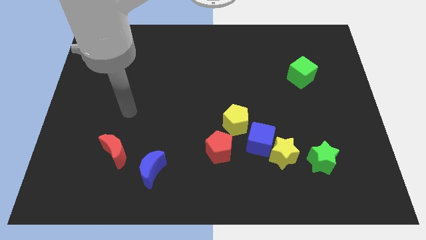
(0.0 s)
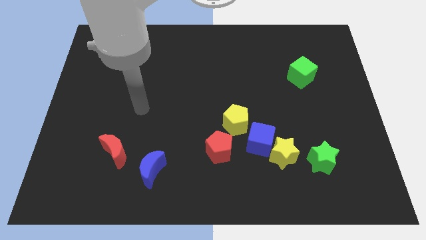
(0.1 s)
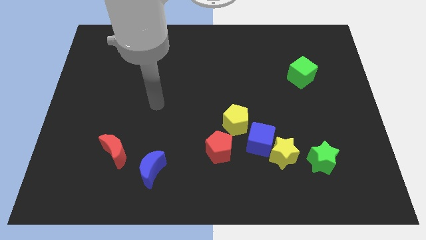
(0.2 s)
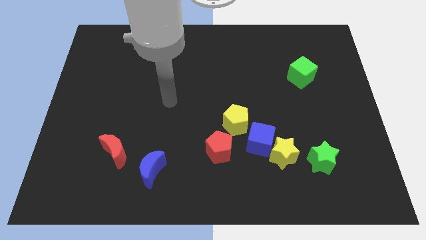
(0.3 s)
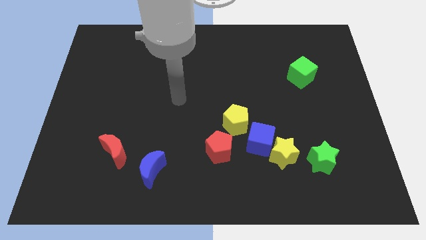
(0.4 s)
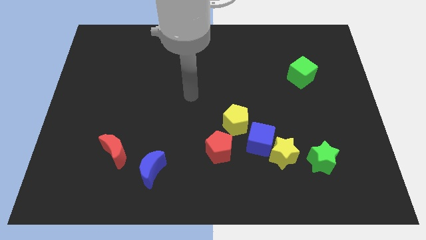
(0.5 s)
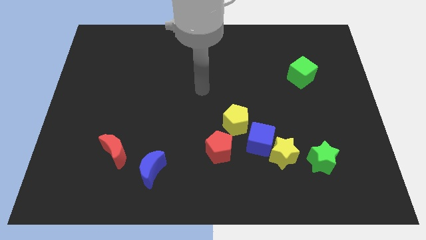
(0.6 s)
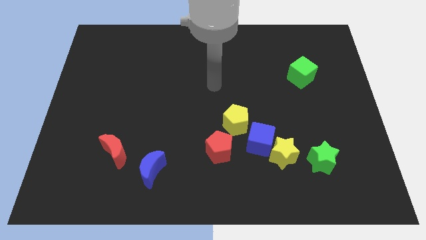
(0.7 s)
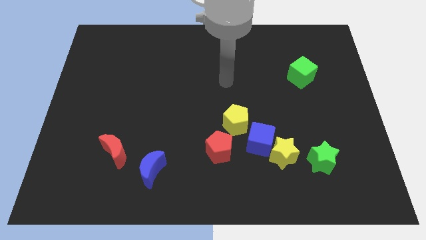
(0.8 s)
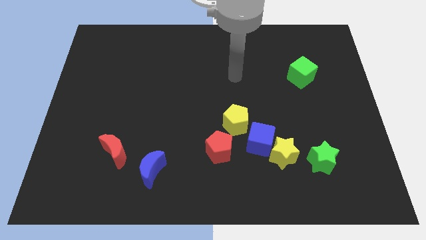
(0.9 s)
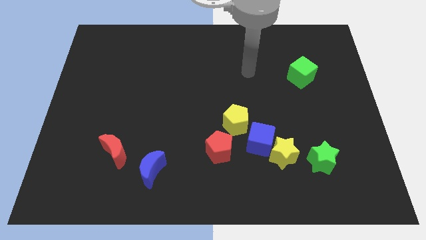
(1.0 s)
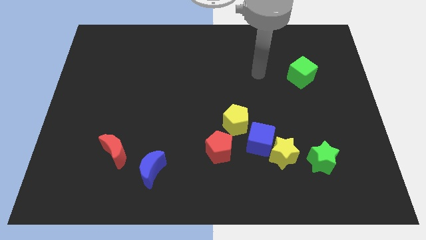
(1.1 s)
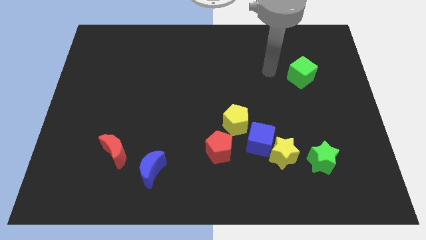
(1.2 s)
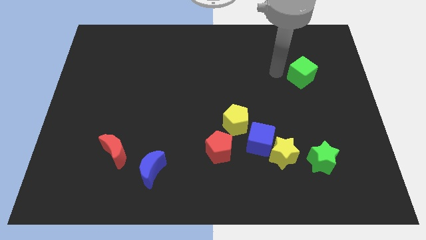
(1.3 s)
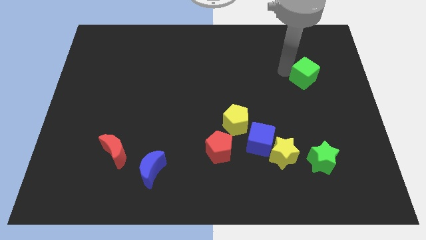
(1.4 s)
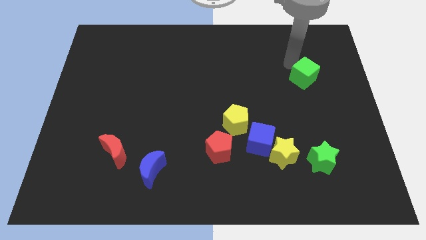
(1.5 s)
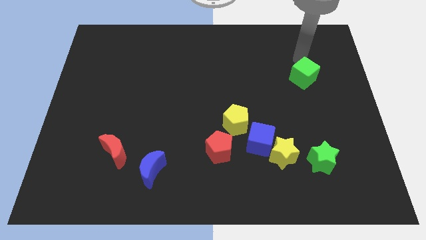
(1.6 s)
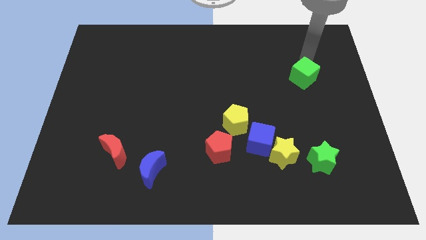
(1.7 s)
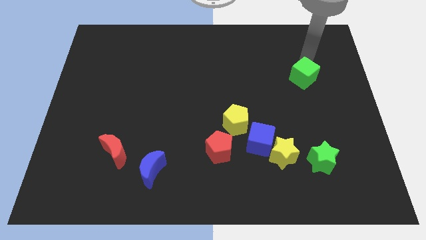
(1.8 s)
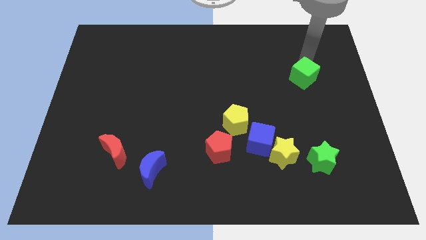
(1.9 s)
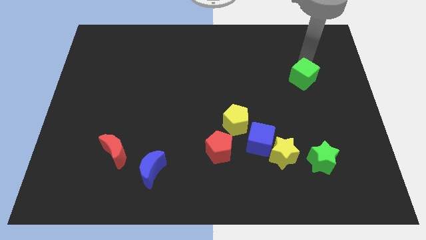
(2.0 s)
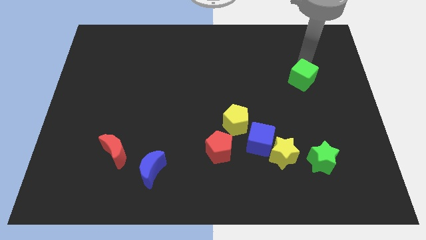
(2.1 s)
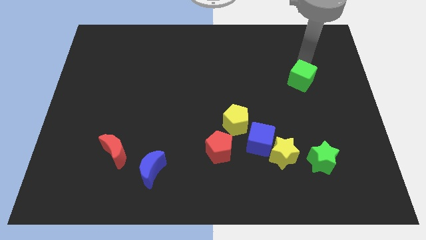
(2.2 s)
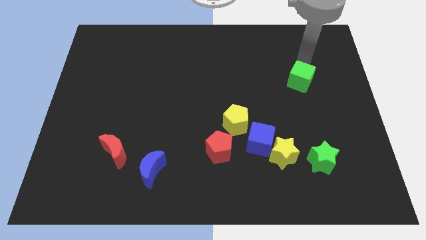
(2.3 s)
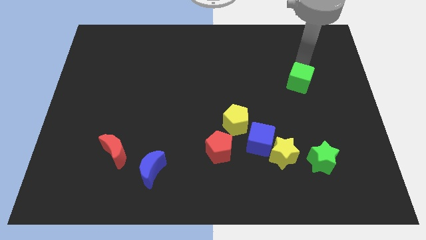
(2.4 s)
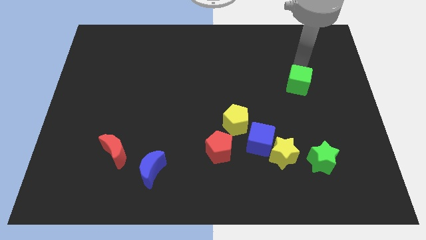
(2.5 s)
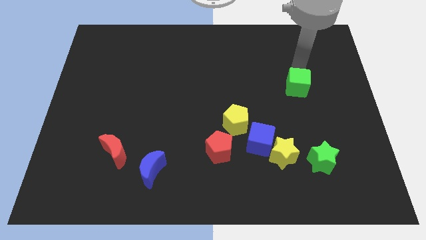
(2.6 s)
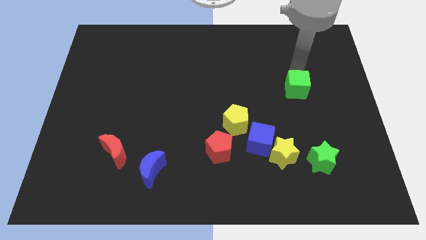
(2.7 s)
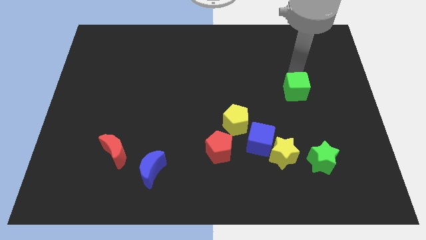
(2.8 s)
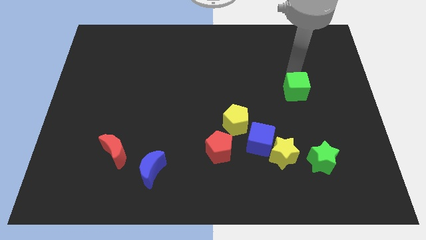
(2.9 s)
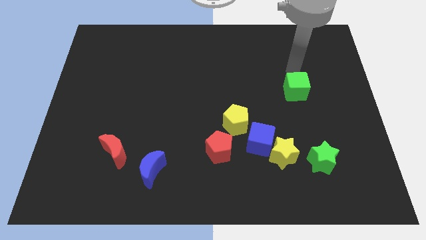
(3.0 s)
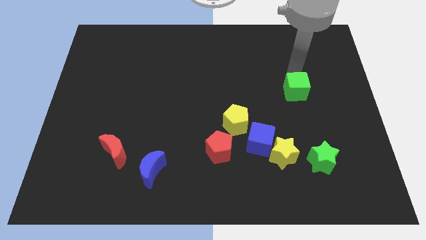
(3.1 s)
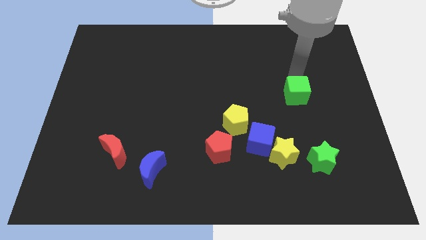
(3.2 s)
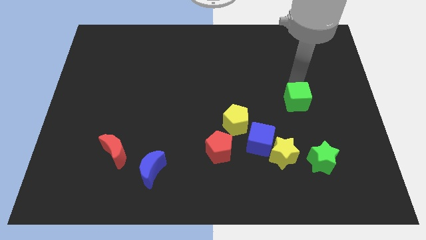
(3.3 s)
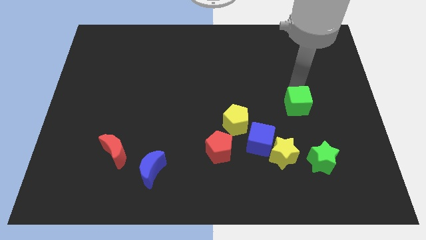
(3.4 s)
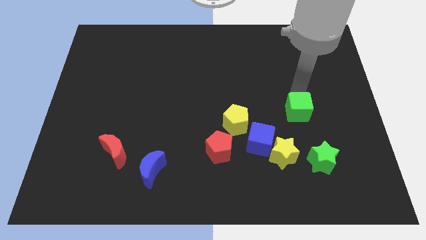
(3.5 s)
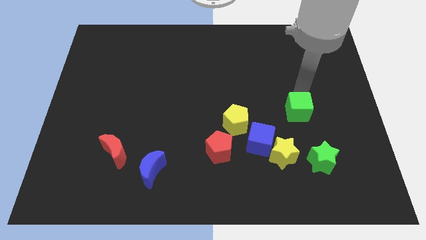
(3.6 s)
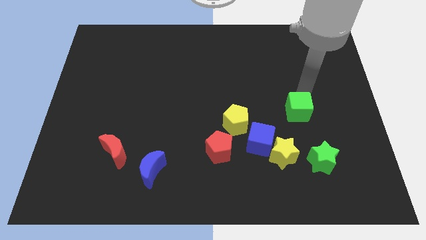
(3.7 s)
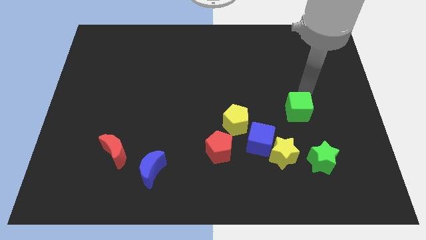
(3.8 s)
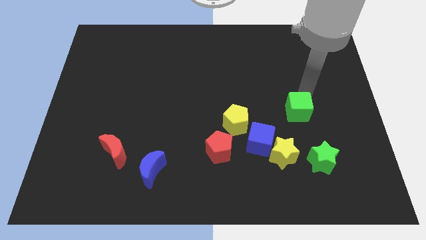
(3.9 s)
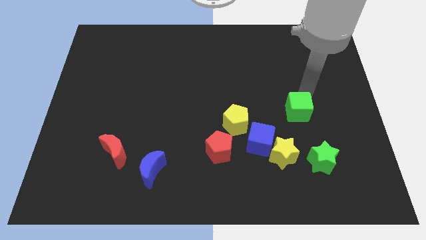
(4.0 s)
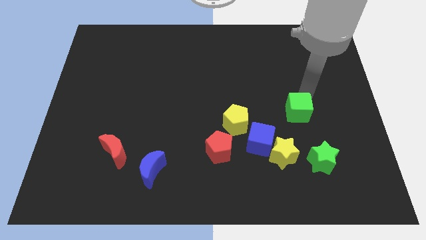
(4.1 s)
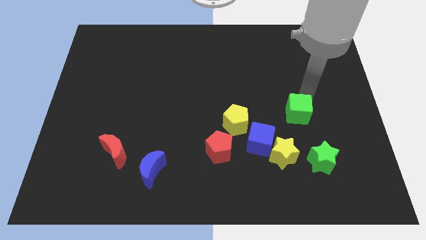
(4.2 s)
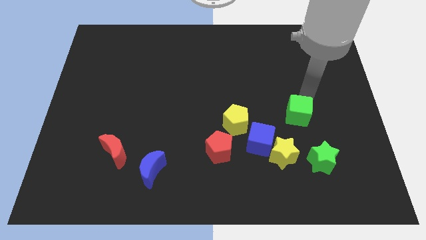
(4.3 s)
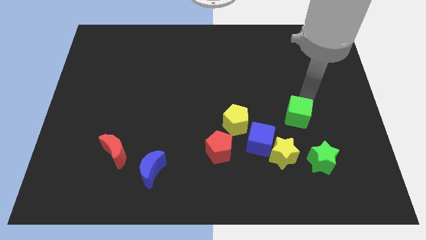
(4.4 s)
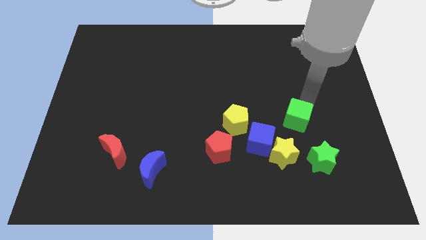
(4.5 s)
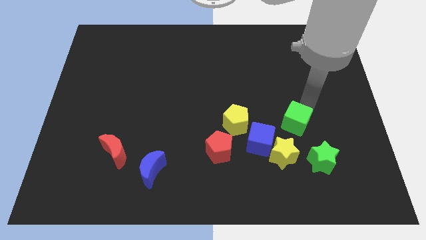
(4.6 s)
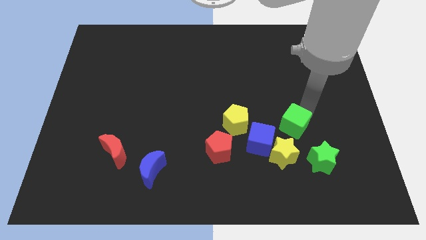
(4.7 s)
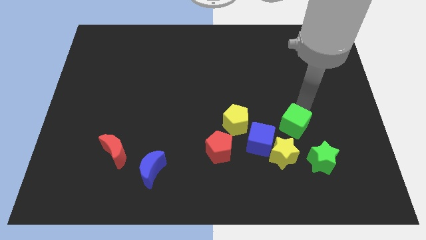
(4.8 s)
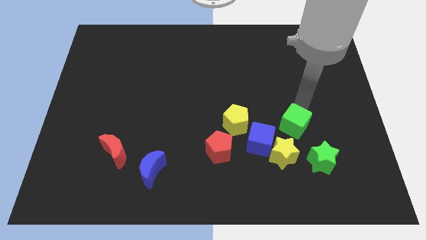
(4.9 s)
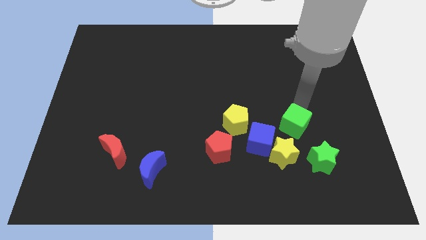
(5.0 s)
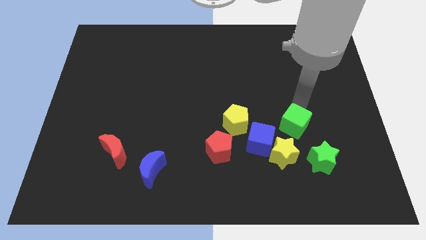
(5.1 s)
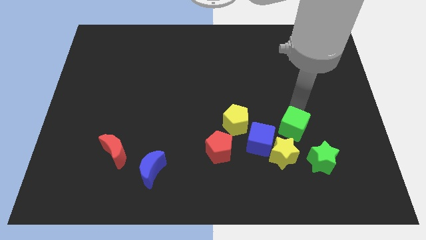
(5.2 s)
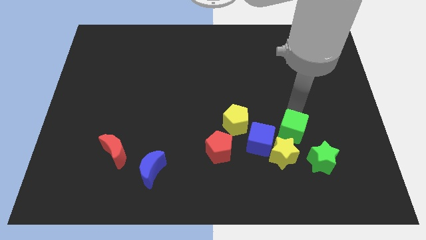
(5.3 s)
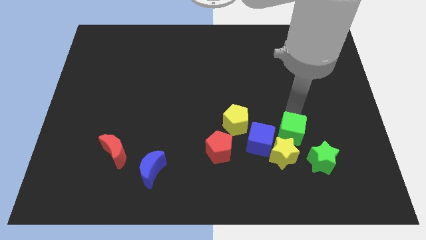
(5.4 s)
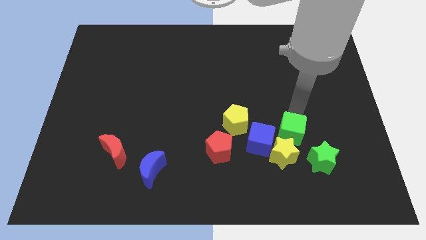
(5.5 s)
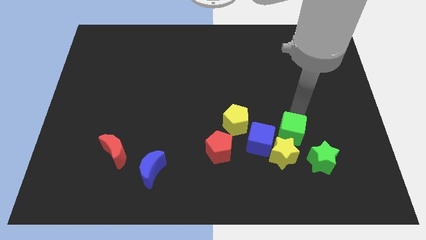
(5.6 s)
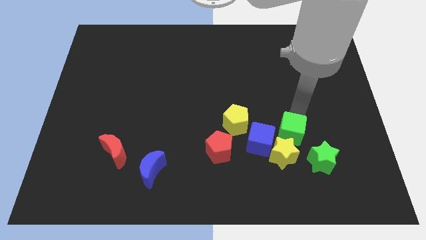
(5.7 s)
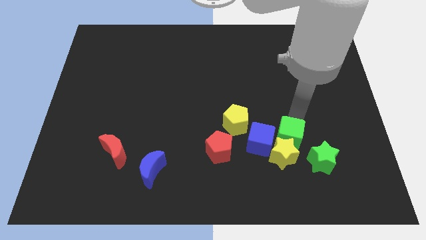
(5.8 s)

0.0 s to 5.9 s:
push the green cube towards the yellow star

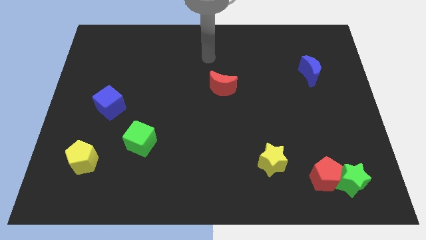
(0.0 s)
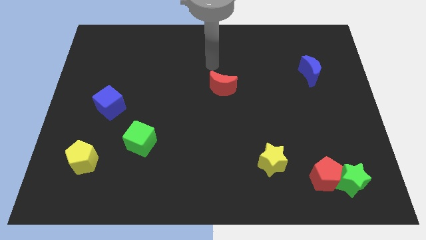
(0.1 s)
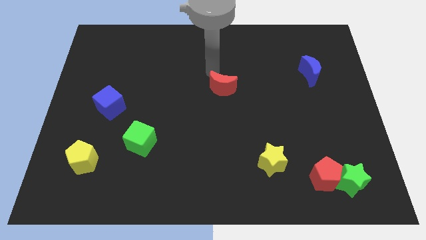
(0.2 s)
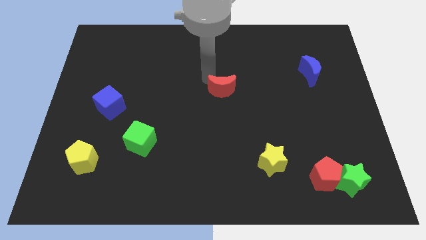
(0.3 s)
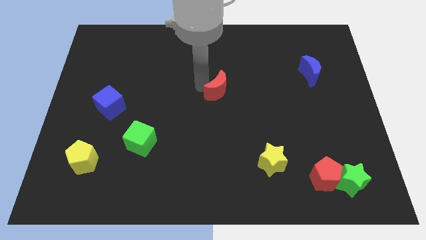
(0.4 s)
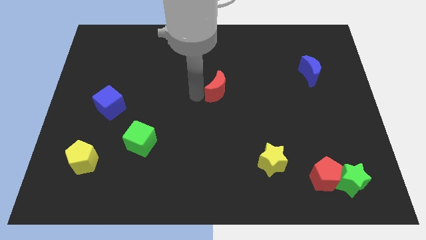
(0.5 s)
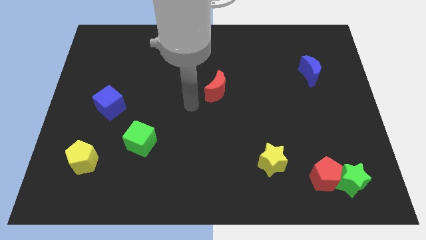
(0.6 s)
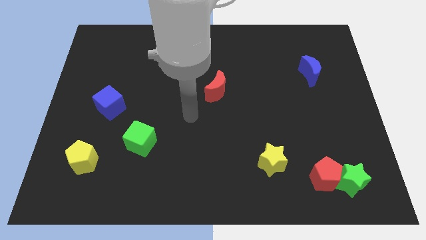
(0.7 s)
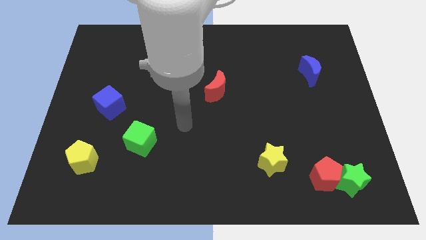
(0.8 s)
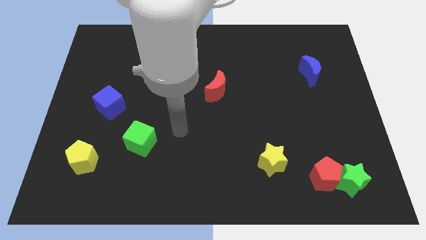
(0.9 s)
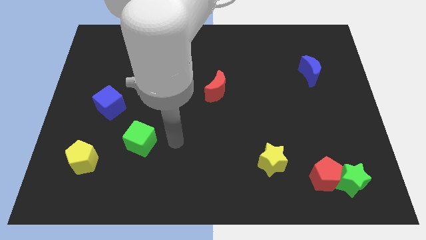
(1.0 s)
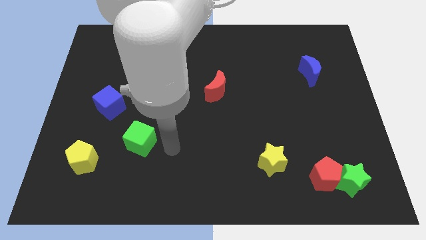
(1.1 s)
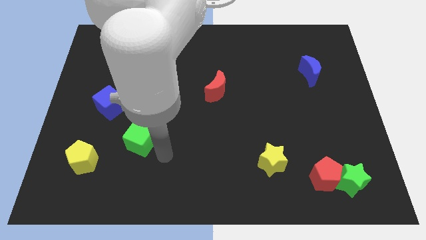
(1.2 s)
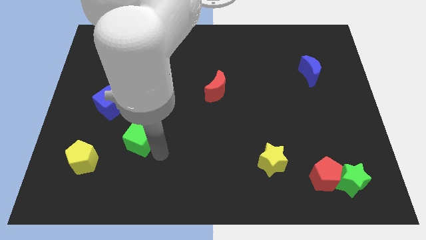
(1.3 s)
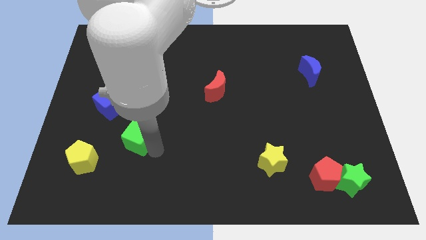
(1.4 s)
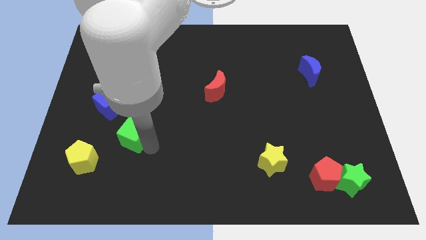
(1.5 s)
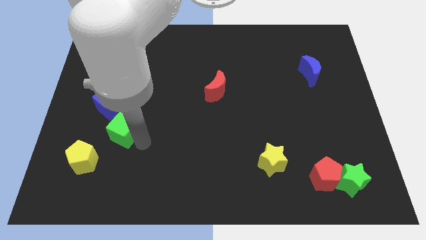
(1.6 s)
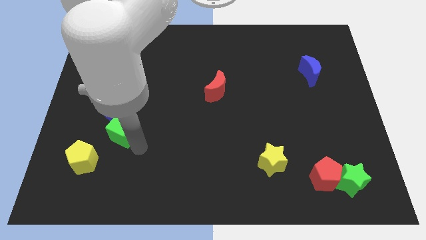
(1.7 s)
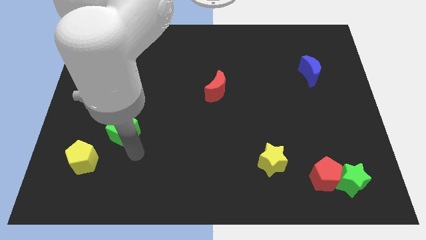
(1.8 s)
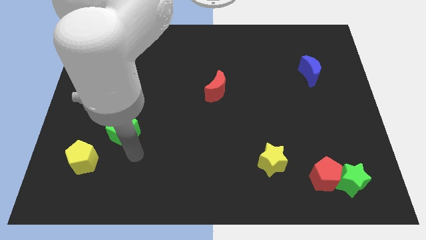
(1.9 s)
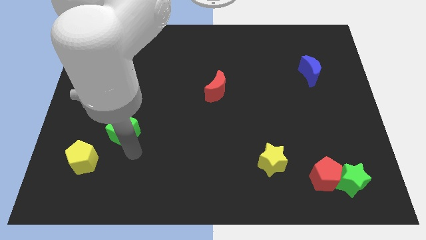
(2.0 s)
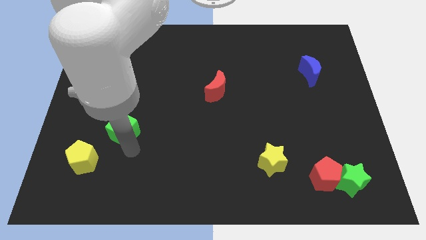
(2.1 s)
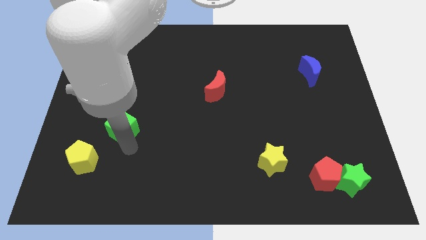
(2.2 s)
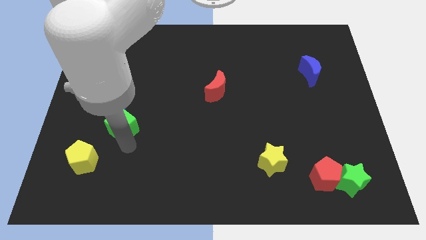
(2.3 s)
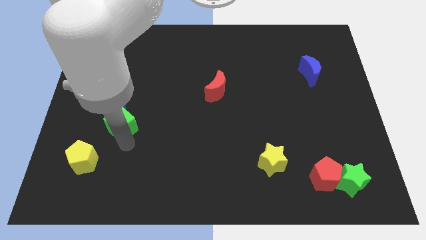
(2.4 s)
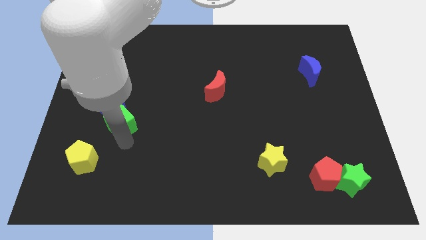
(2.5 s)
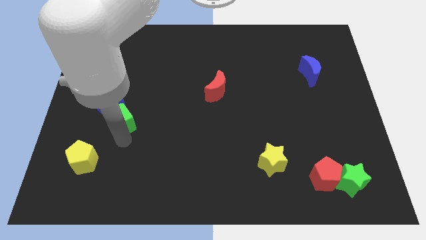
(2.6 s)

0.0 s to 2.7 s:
put the green cube close to the blue cube
